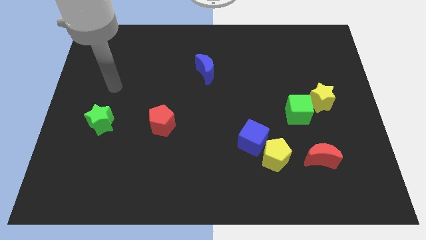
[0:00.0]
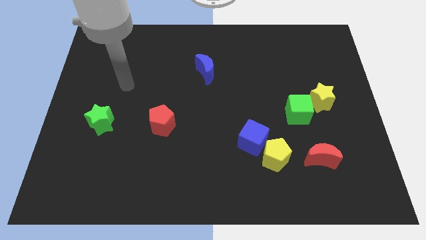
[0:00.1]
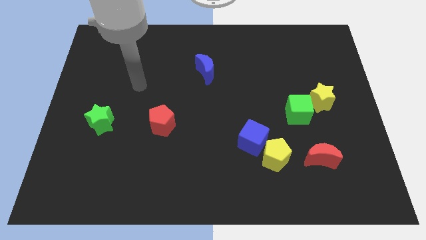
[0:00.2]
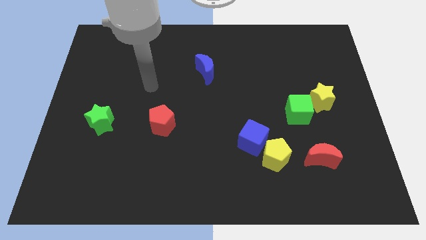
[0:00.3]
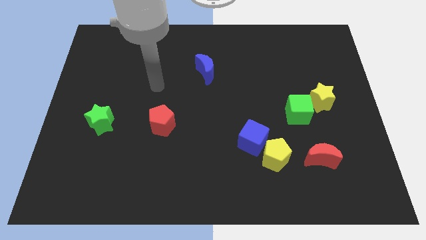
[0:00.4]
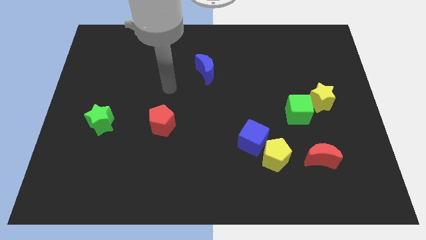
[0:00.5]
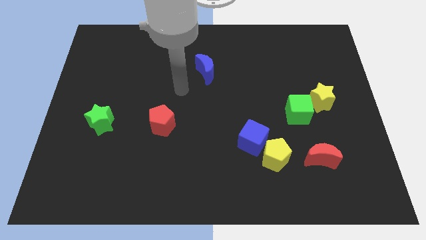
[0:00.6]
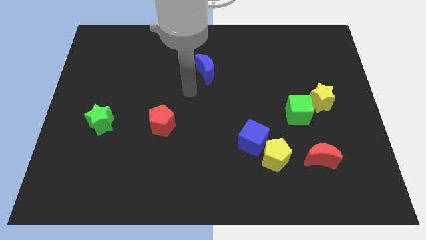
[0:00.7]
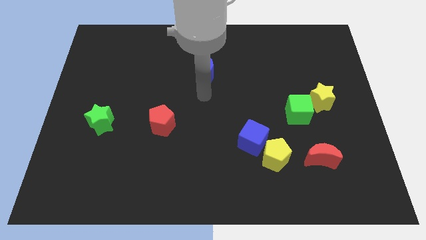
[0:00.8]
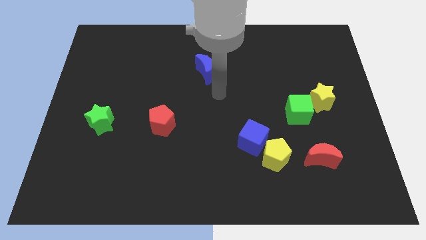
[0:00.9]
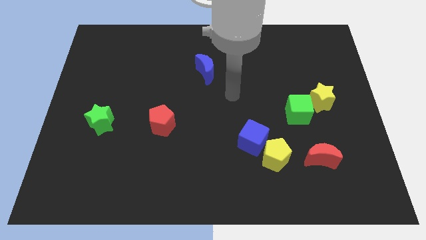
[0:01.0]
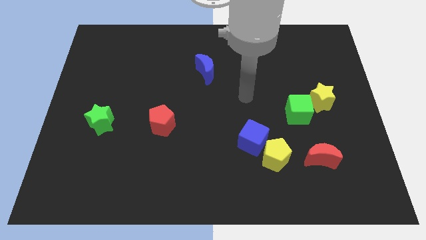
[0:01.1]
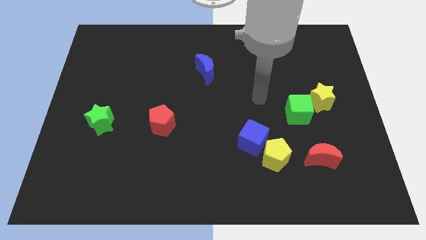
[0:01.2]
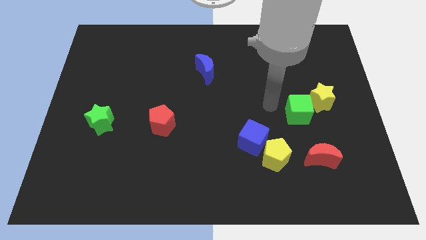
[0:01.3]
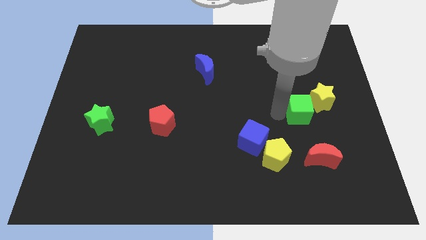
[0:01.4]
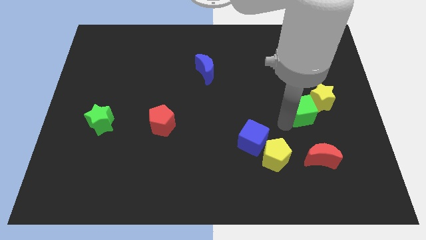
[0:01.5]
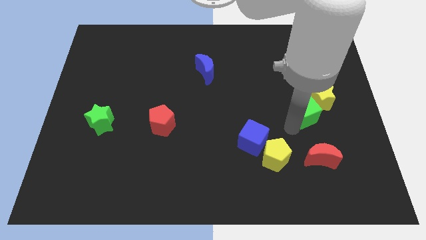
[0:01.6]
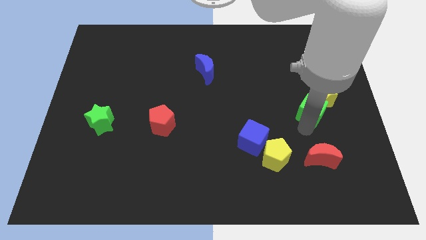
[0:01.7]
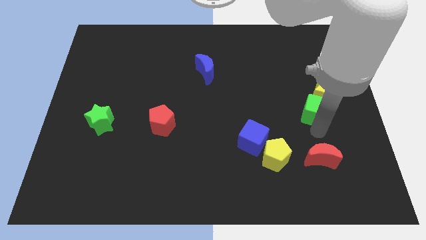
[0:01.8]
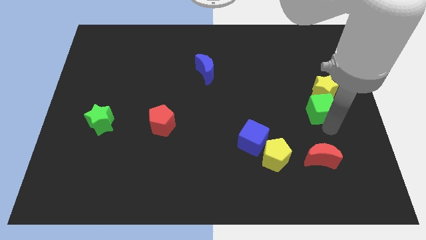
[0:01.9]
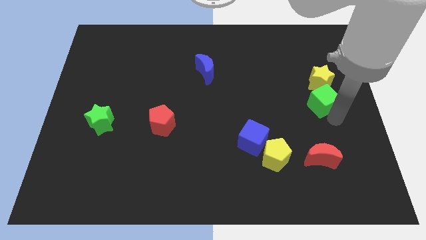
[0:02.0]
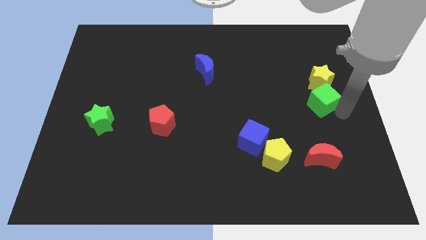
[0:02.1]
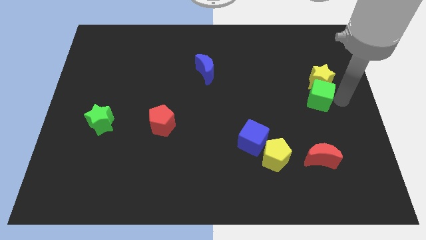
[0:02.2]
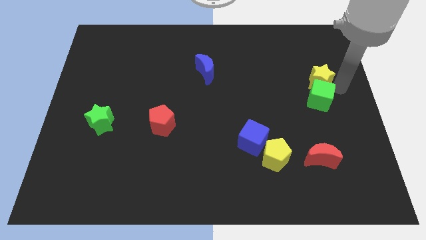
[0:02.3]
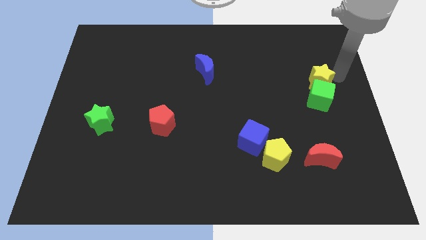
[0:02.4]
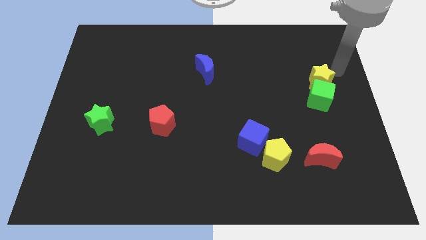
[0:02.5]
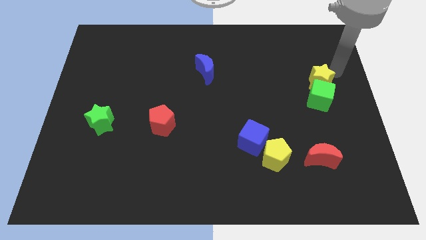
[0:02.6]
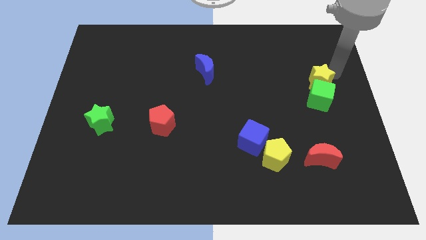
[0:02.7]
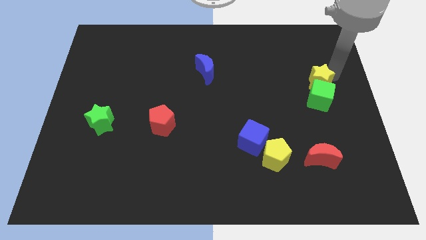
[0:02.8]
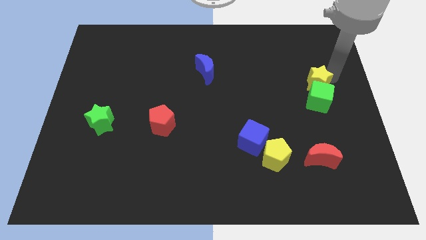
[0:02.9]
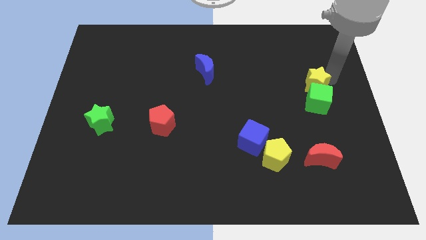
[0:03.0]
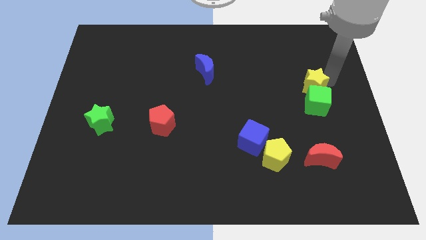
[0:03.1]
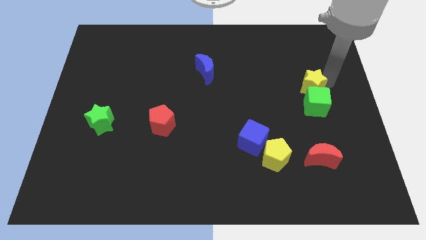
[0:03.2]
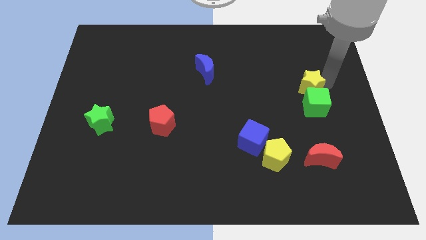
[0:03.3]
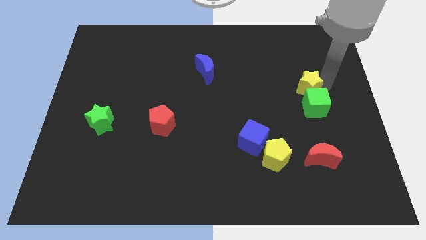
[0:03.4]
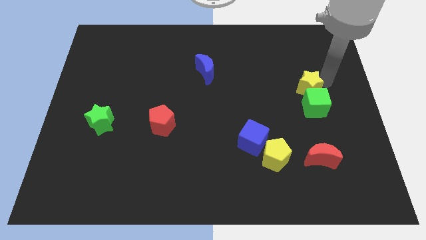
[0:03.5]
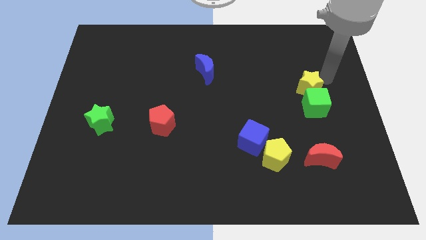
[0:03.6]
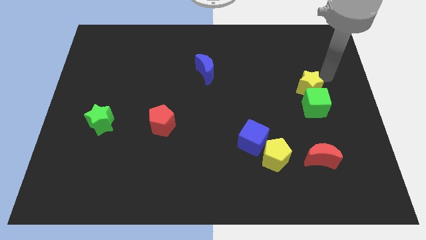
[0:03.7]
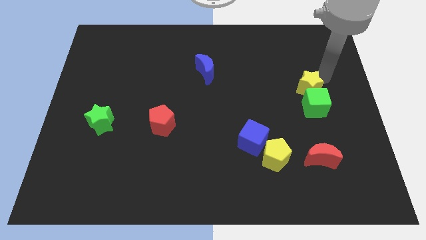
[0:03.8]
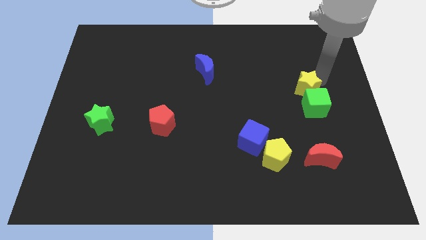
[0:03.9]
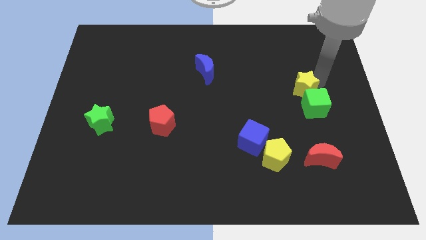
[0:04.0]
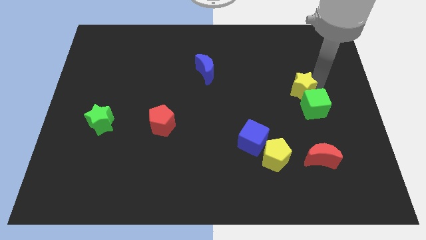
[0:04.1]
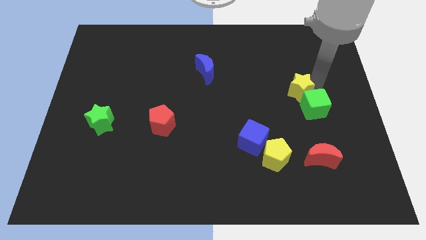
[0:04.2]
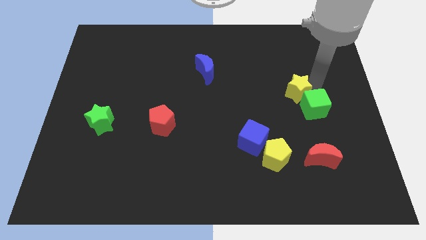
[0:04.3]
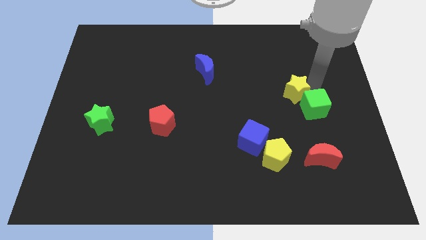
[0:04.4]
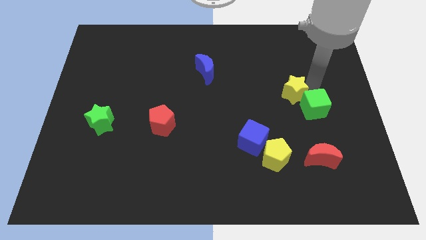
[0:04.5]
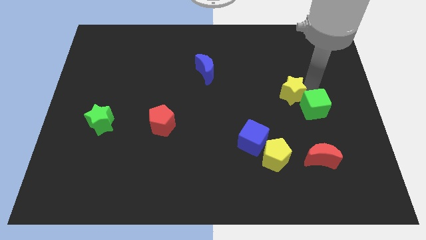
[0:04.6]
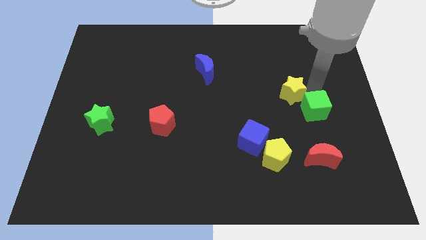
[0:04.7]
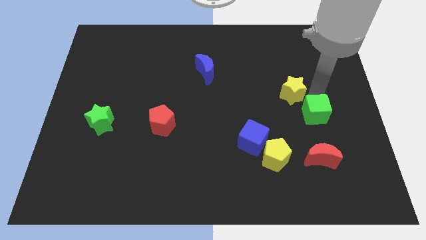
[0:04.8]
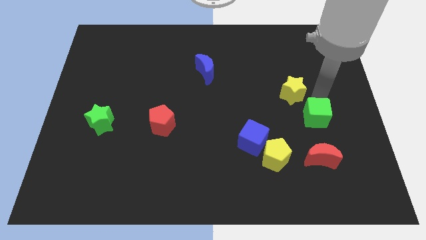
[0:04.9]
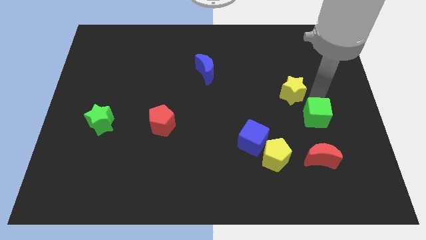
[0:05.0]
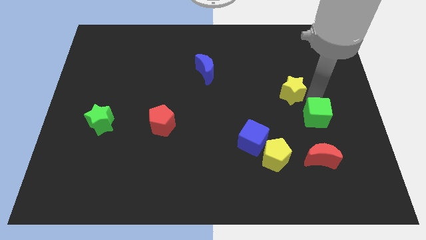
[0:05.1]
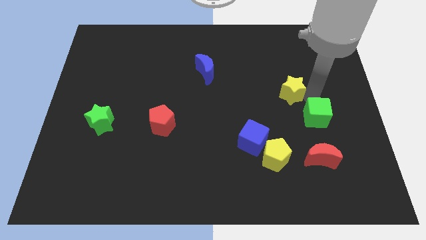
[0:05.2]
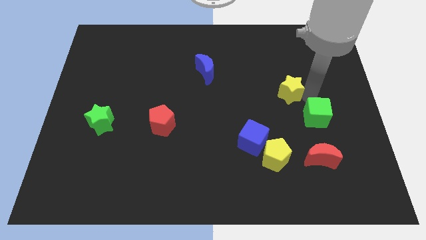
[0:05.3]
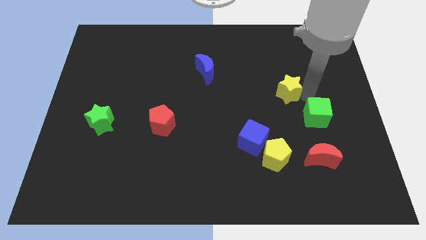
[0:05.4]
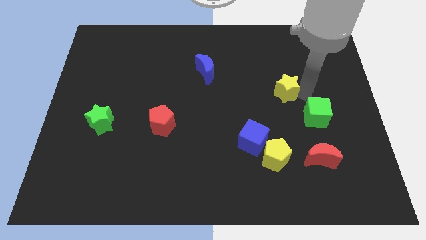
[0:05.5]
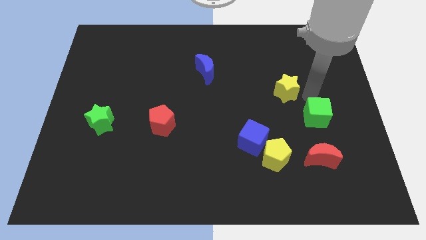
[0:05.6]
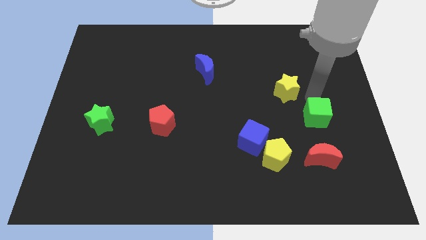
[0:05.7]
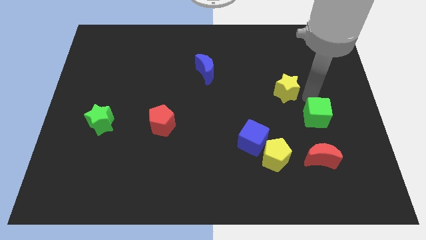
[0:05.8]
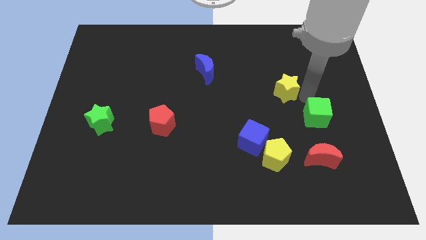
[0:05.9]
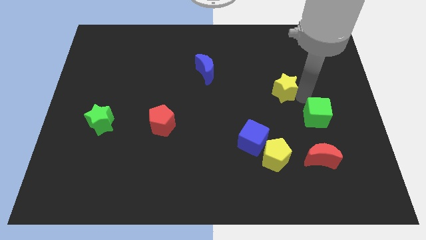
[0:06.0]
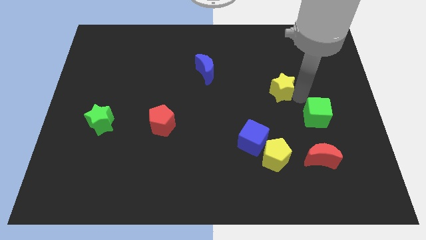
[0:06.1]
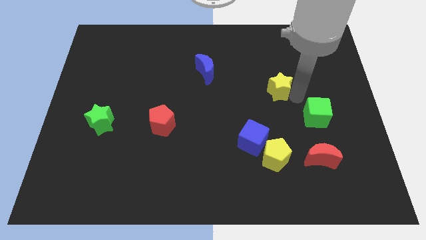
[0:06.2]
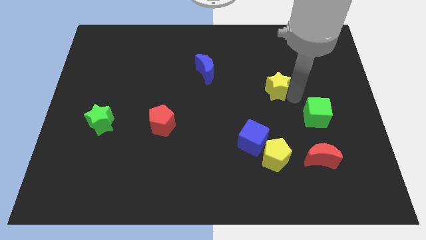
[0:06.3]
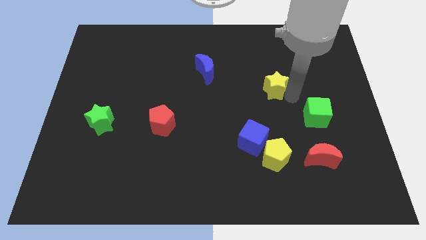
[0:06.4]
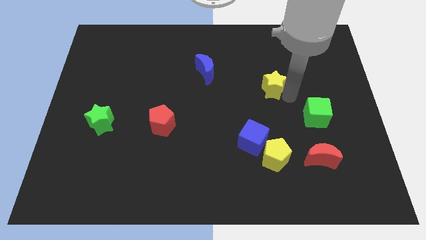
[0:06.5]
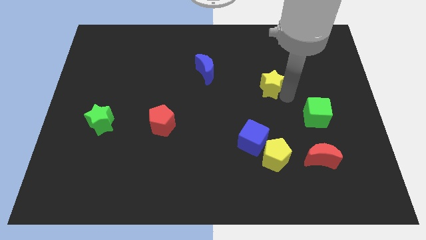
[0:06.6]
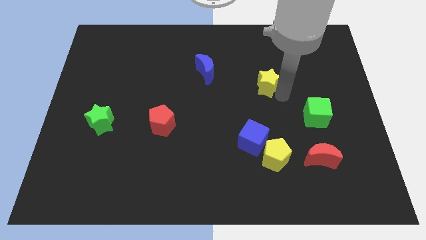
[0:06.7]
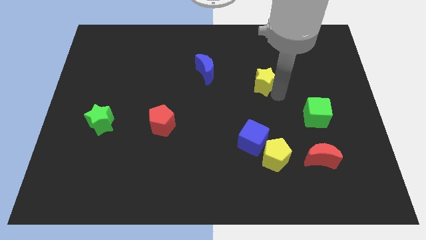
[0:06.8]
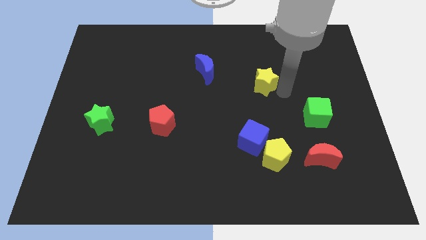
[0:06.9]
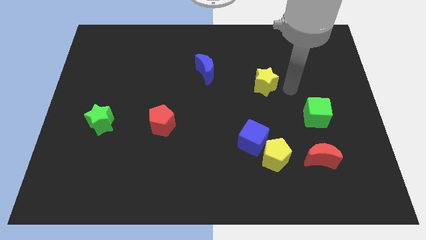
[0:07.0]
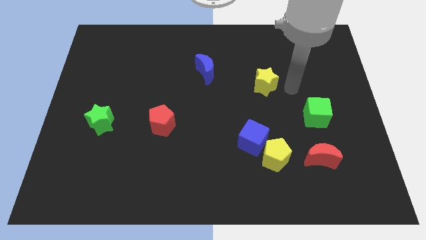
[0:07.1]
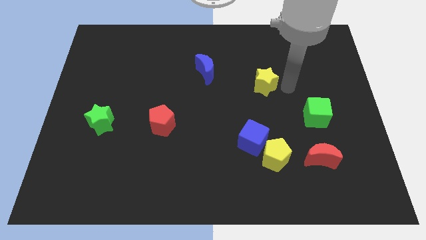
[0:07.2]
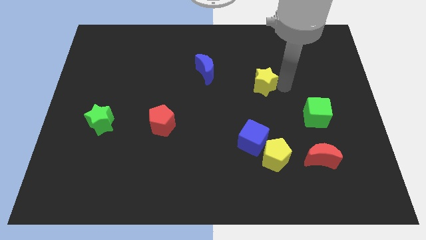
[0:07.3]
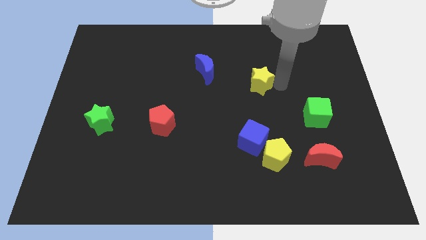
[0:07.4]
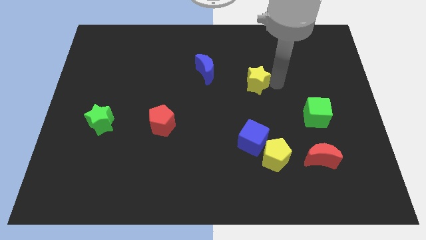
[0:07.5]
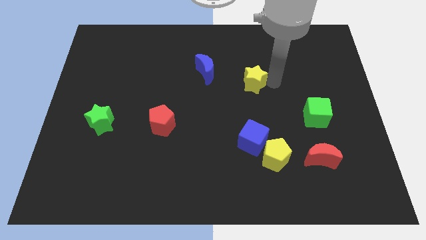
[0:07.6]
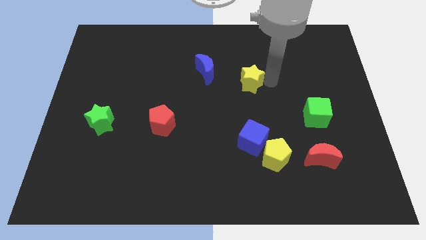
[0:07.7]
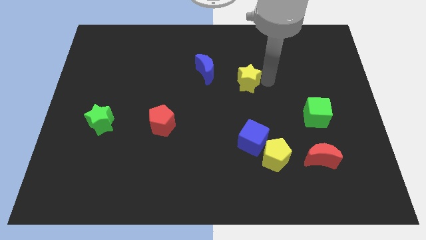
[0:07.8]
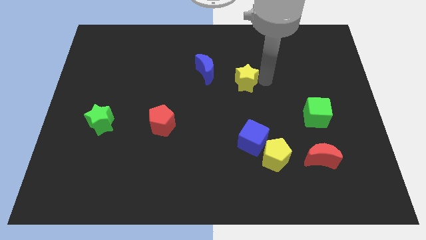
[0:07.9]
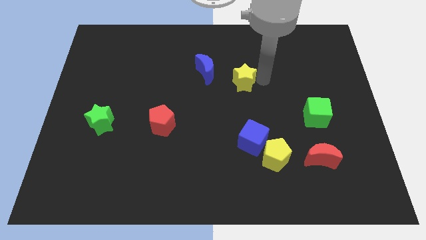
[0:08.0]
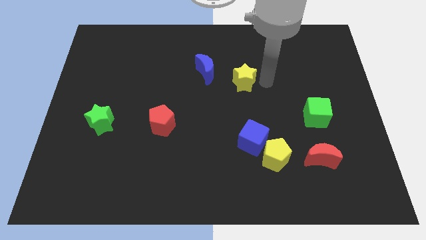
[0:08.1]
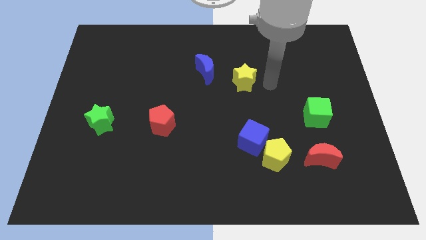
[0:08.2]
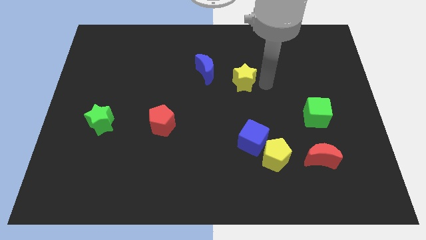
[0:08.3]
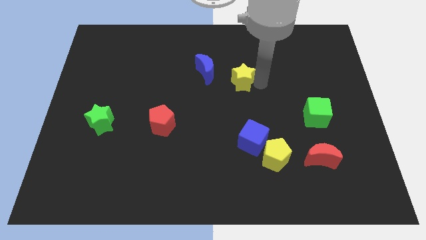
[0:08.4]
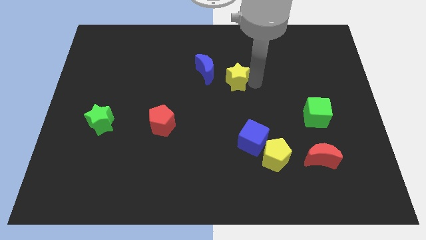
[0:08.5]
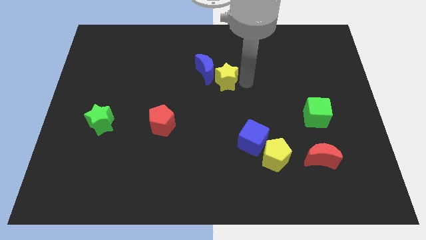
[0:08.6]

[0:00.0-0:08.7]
push the yellow star towards the blue moon
